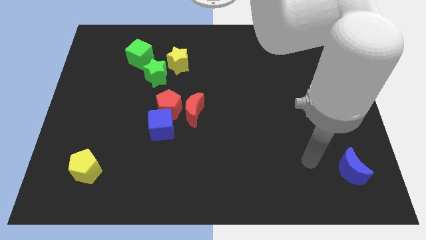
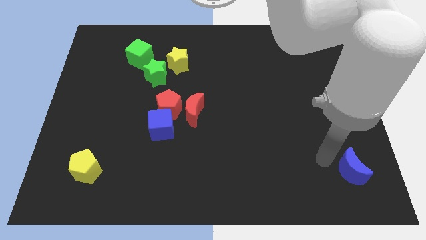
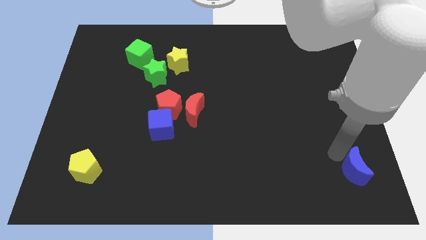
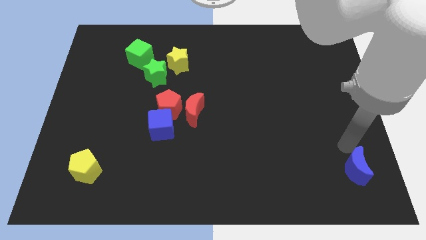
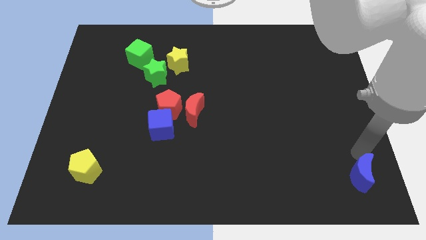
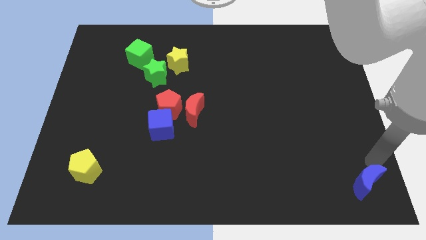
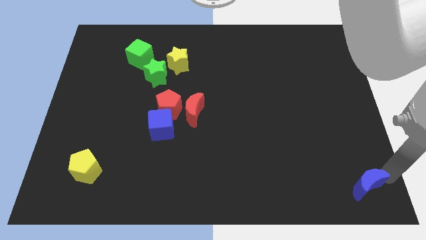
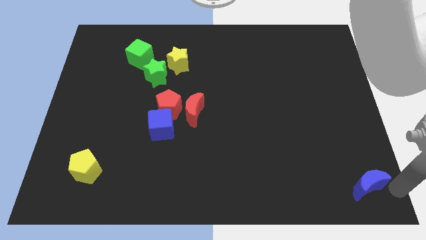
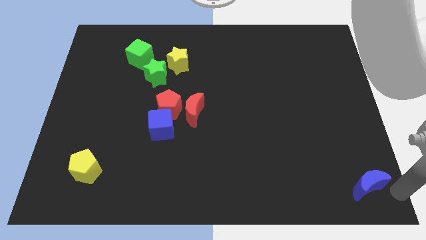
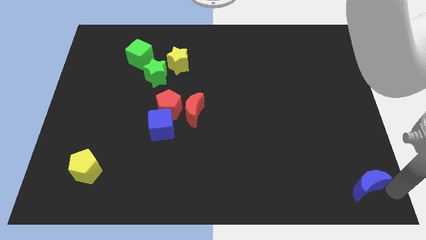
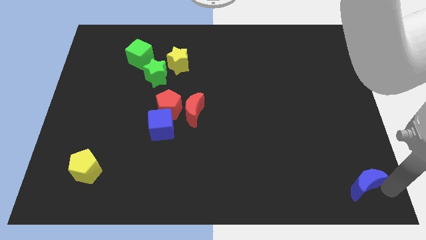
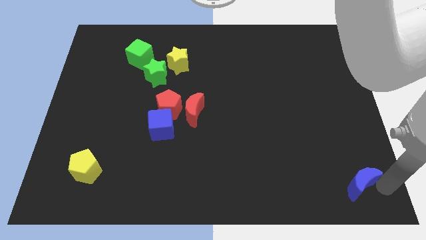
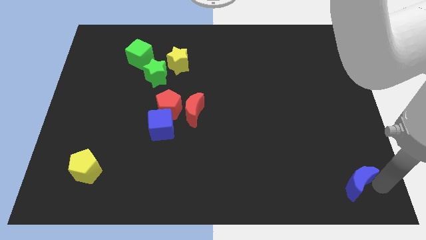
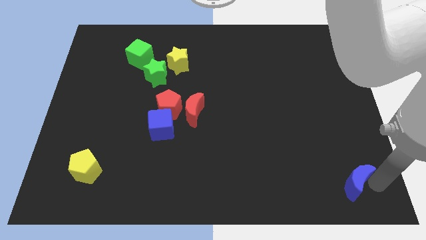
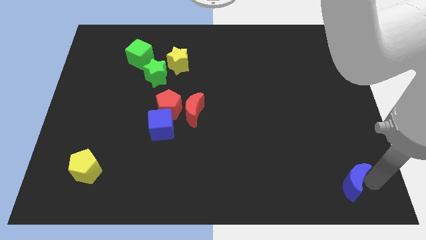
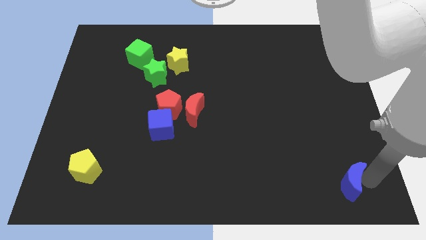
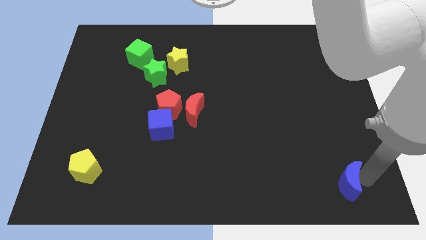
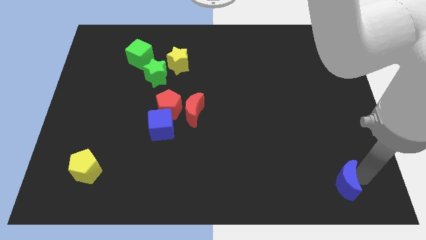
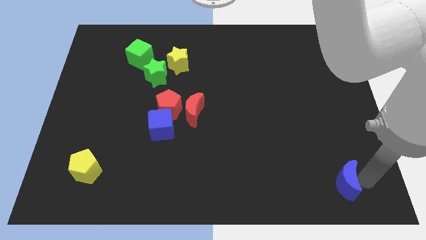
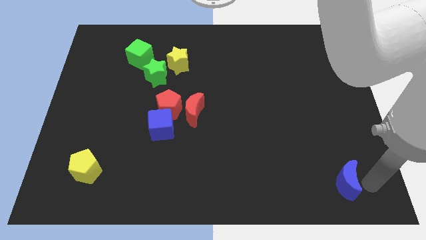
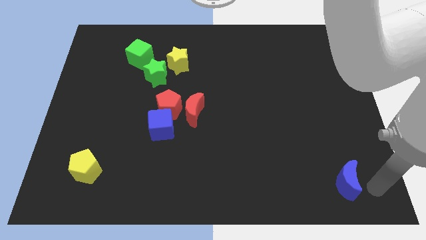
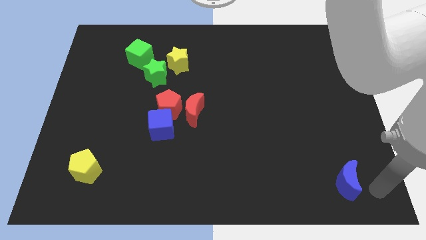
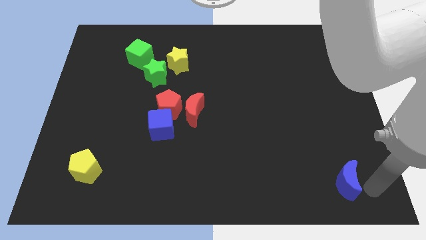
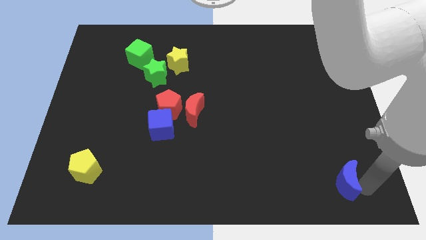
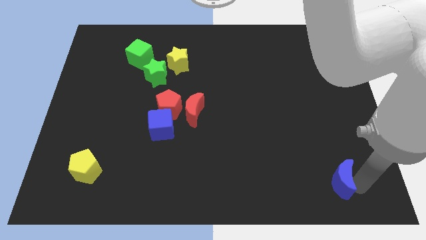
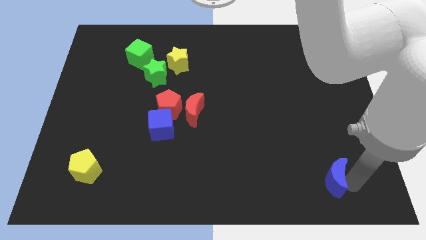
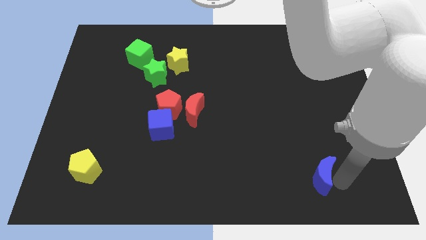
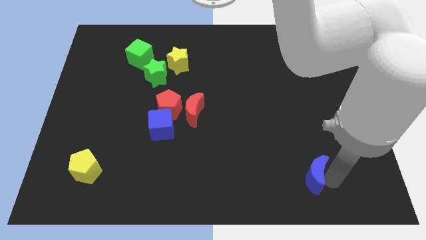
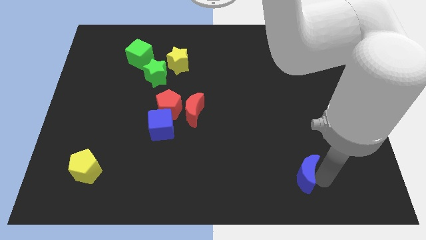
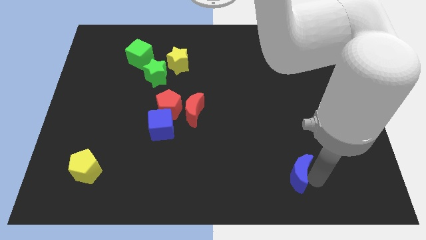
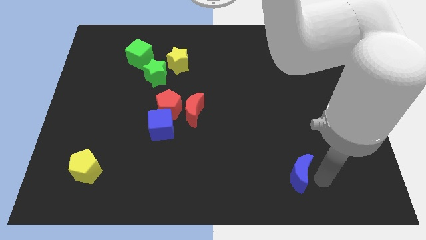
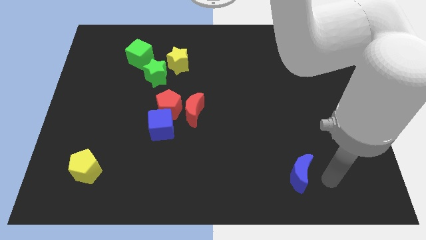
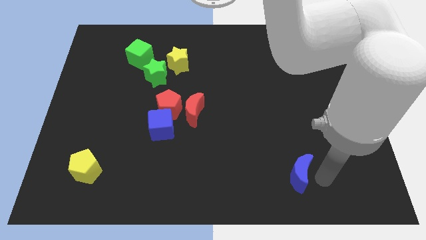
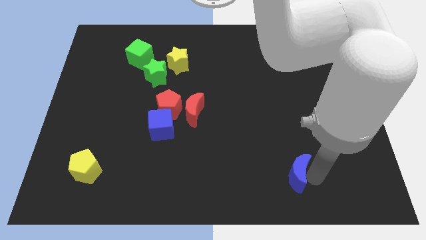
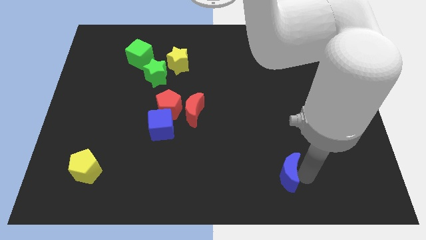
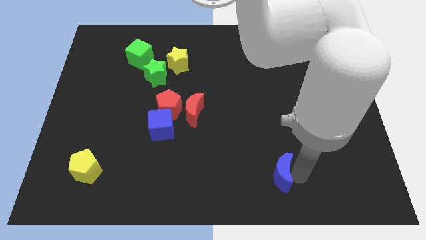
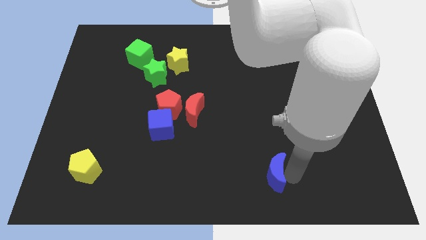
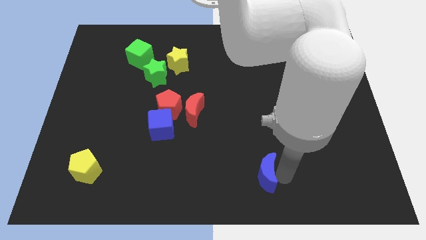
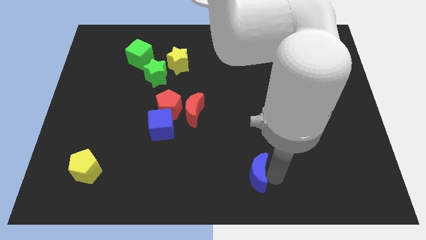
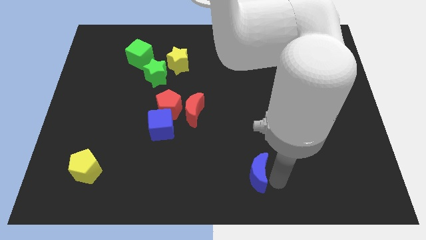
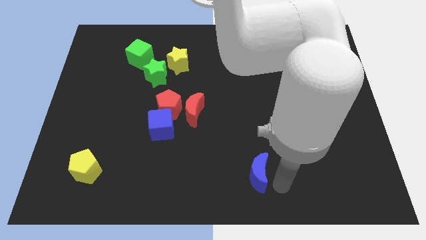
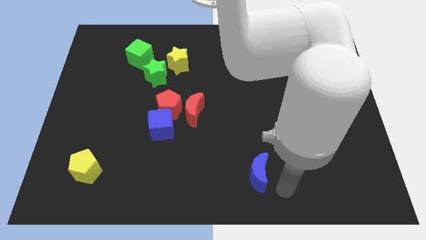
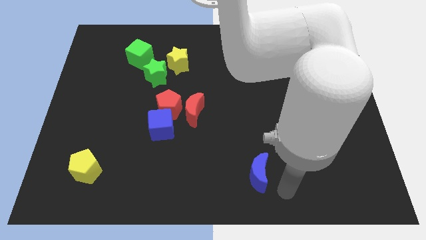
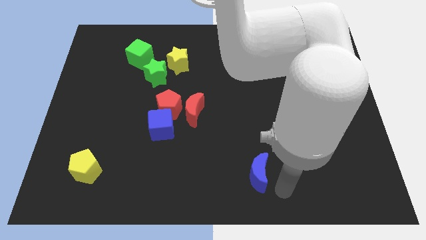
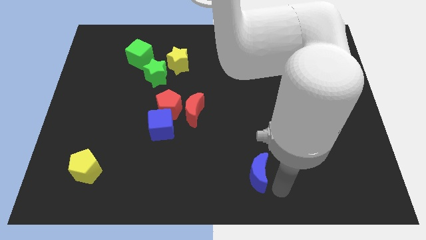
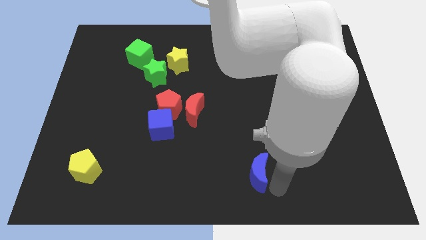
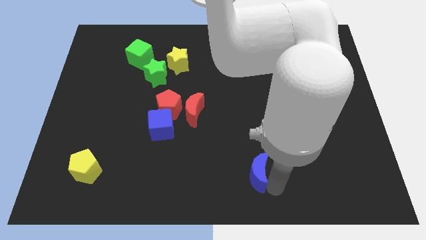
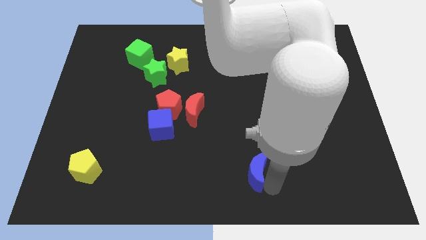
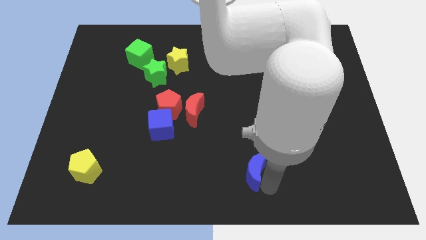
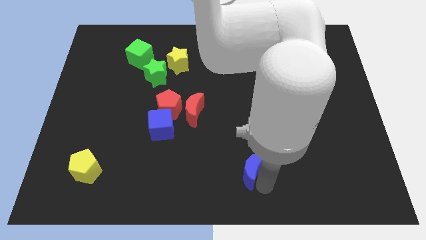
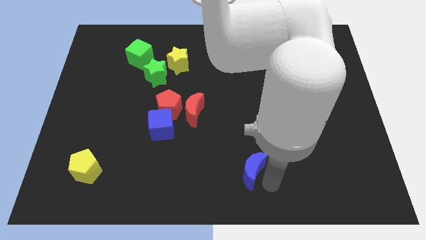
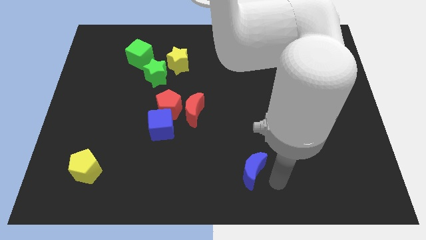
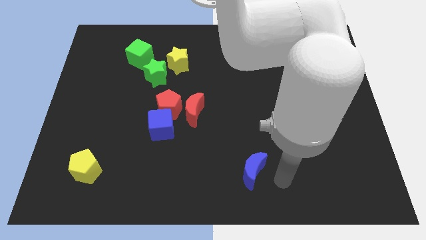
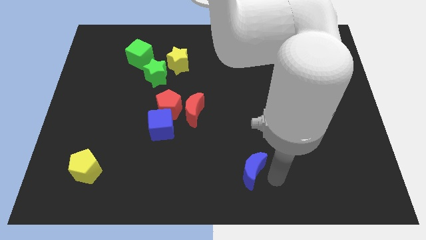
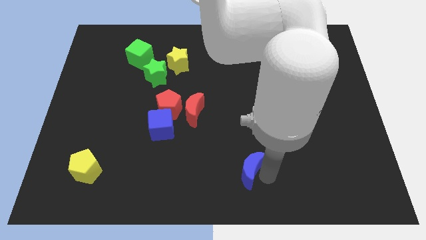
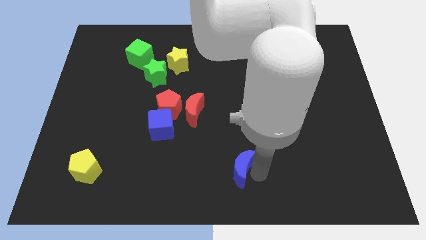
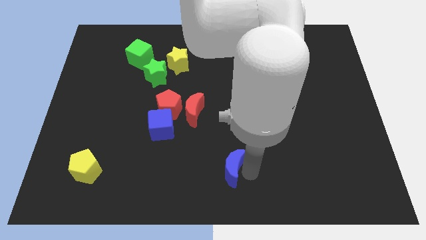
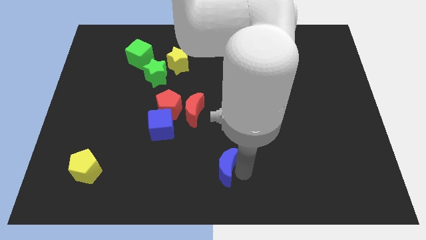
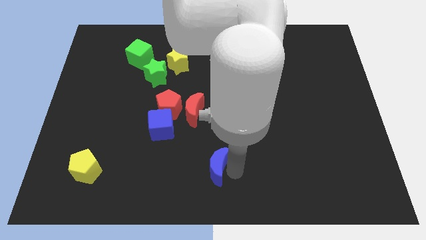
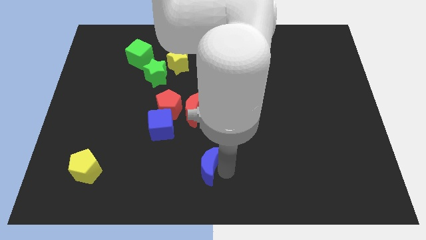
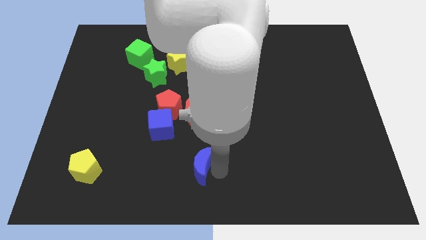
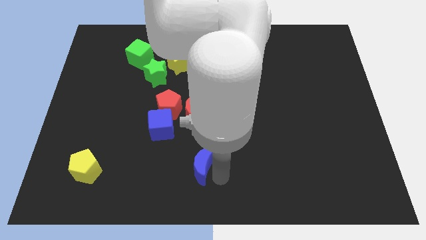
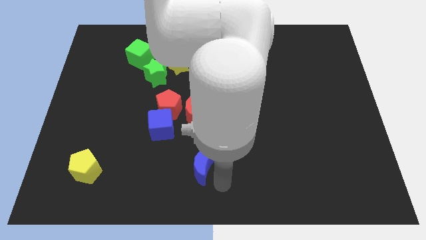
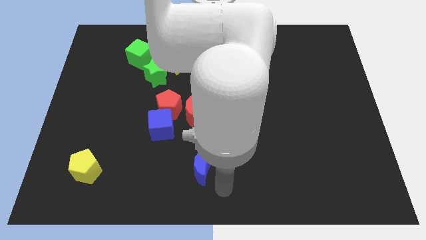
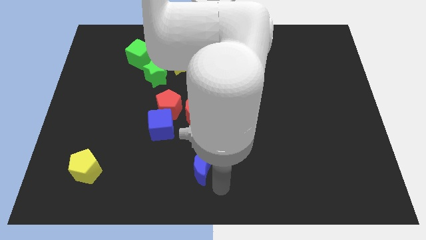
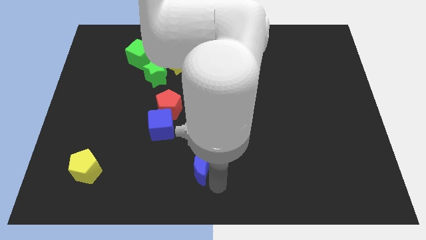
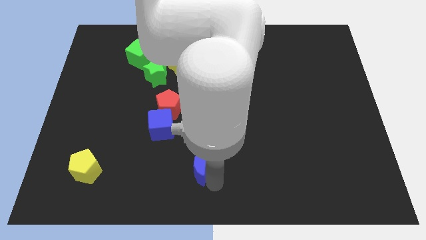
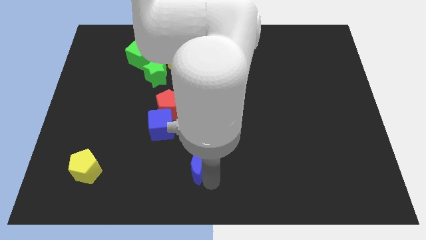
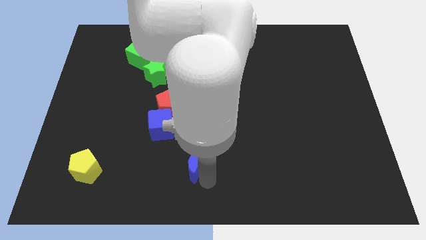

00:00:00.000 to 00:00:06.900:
move the blue moon to the bottom right of the blue cube
